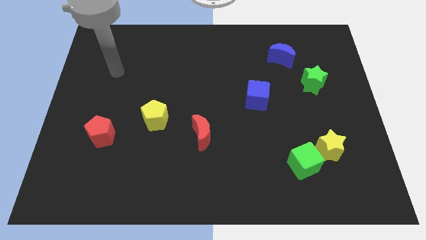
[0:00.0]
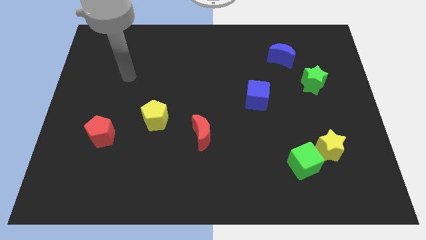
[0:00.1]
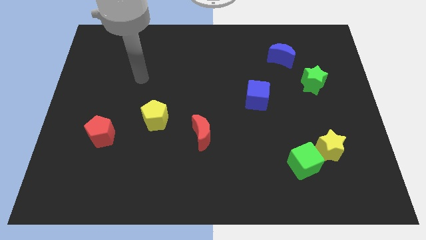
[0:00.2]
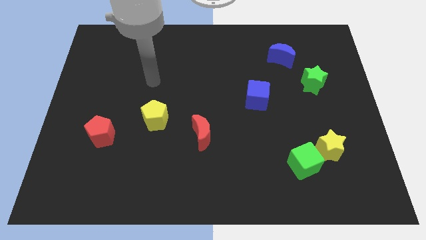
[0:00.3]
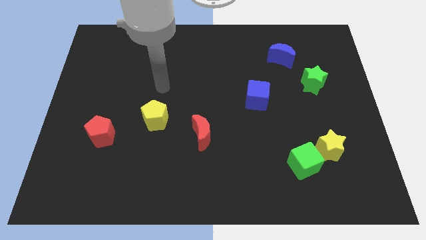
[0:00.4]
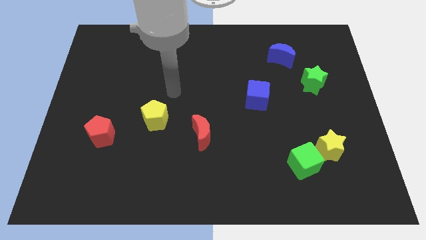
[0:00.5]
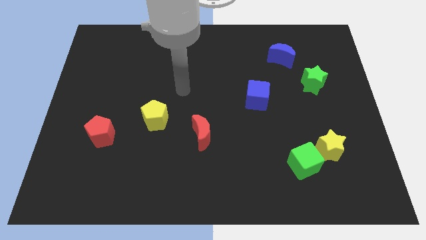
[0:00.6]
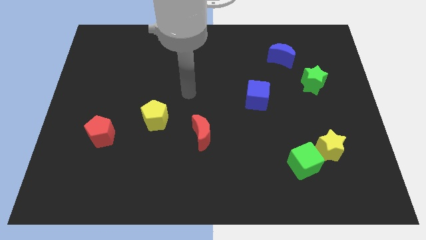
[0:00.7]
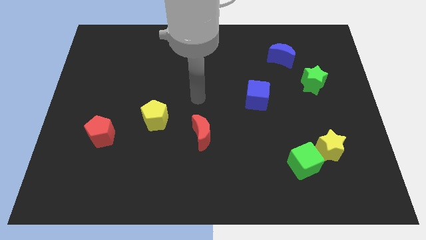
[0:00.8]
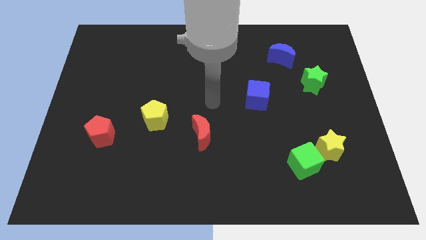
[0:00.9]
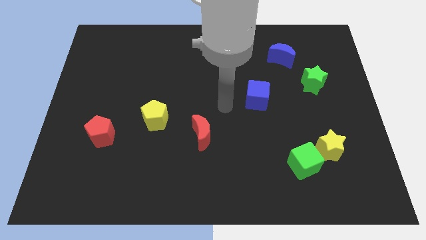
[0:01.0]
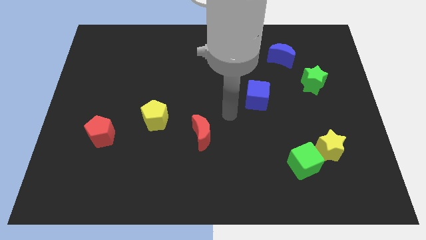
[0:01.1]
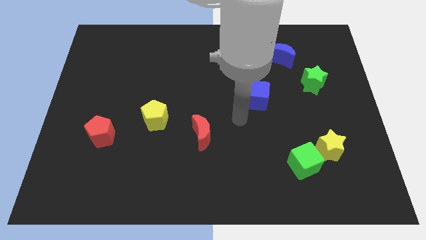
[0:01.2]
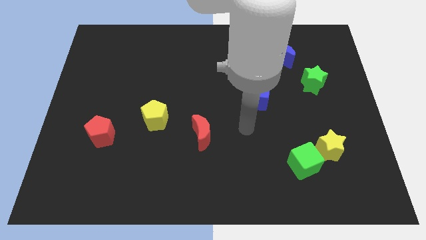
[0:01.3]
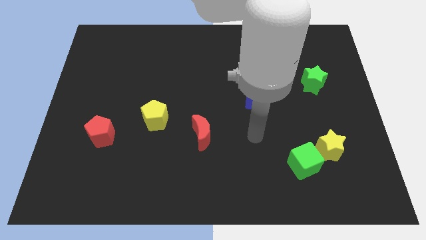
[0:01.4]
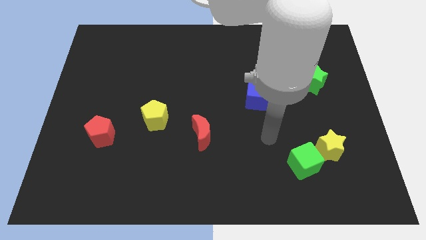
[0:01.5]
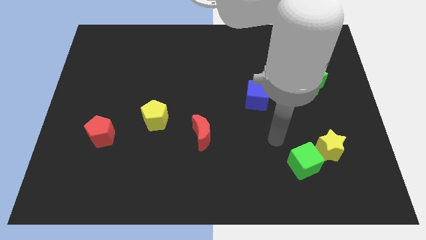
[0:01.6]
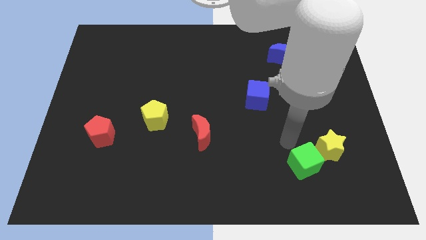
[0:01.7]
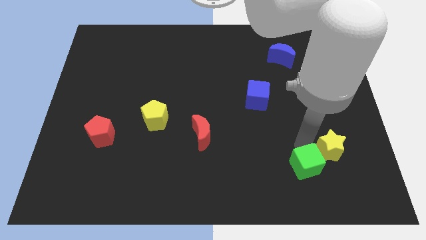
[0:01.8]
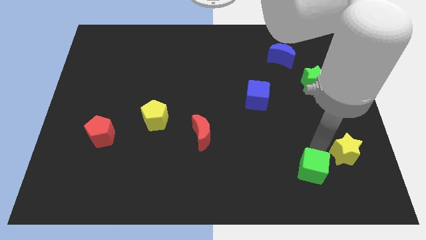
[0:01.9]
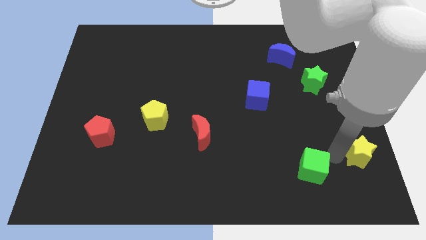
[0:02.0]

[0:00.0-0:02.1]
move the green cube away from the yellow star

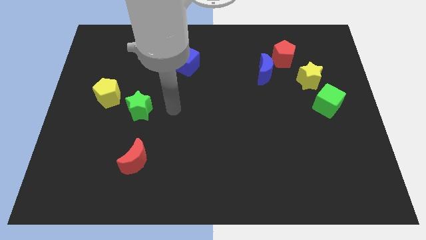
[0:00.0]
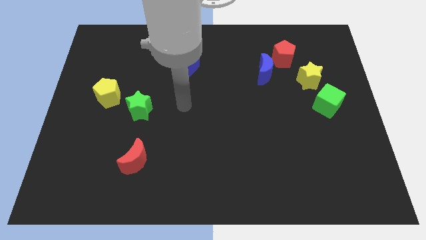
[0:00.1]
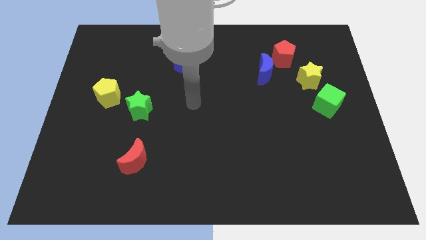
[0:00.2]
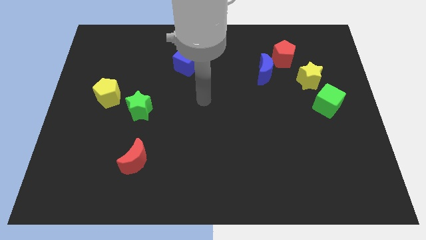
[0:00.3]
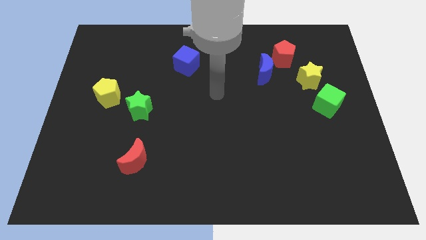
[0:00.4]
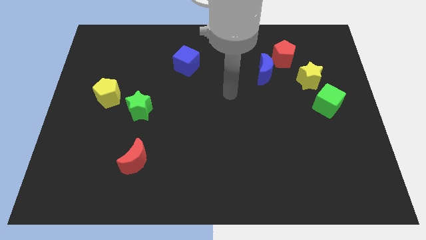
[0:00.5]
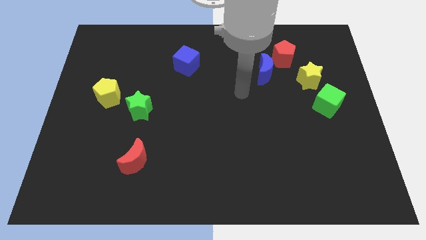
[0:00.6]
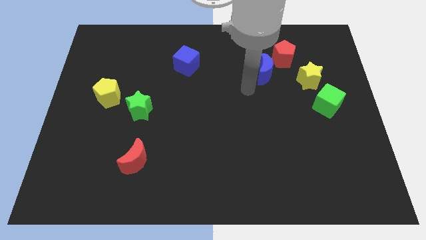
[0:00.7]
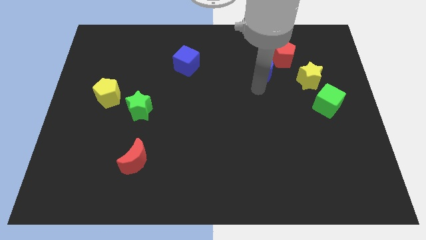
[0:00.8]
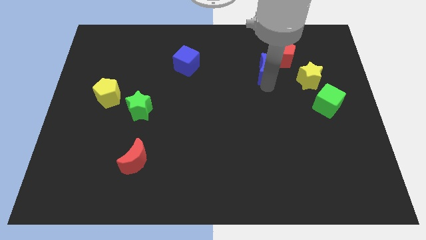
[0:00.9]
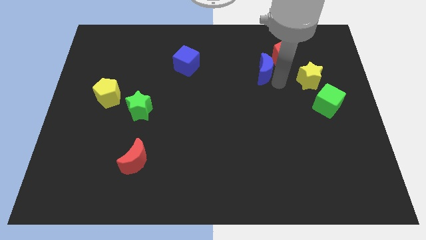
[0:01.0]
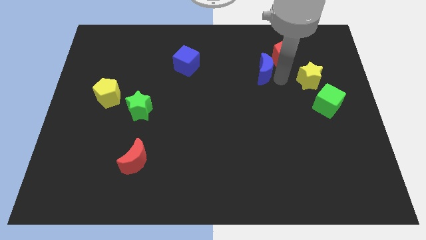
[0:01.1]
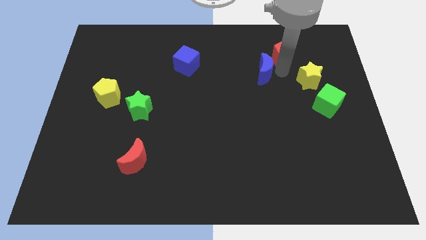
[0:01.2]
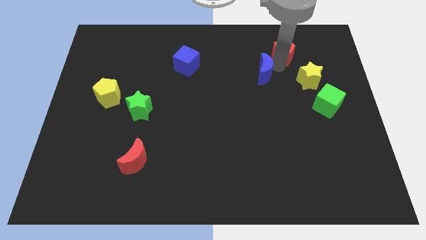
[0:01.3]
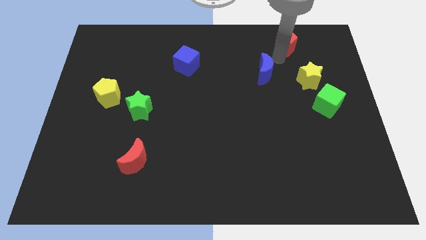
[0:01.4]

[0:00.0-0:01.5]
pull the blue moon apart from the red pentagon

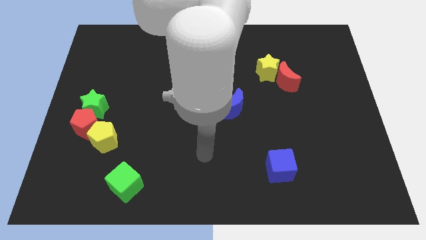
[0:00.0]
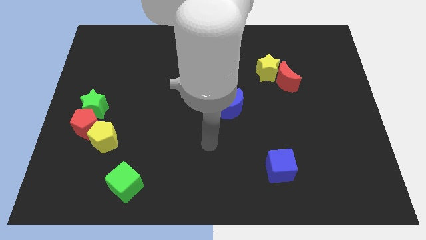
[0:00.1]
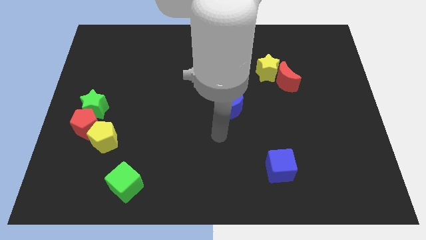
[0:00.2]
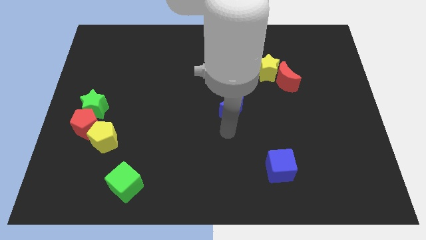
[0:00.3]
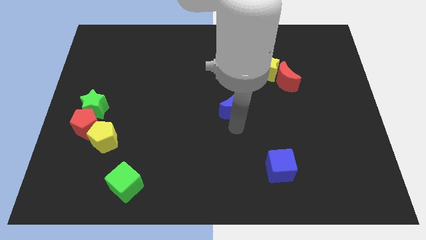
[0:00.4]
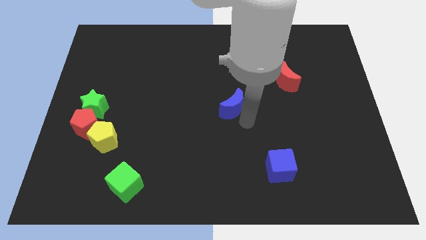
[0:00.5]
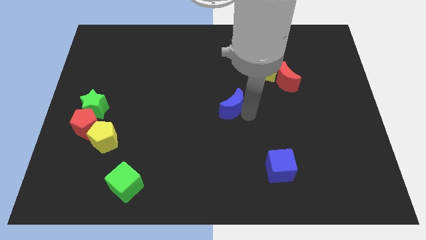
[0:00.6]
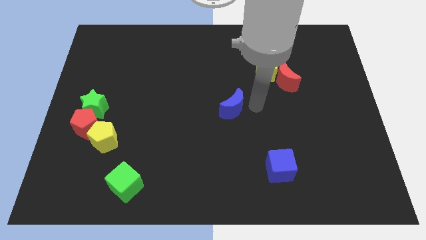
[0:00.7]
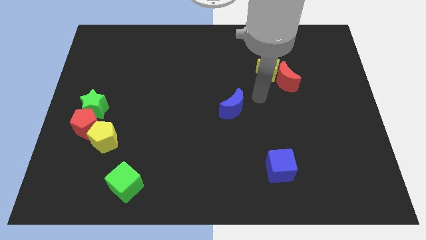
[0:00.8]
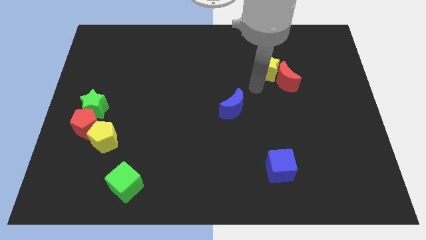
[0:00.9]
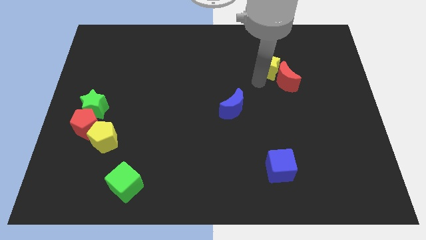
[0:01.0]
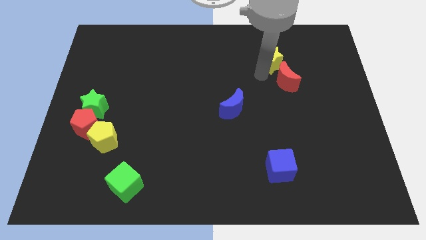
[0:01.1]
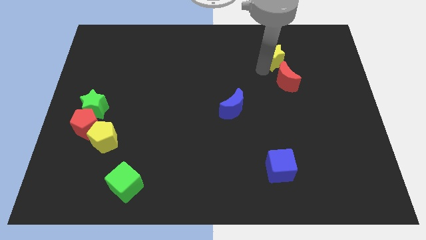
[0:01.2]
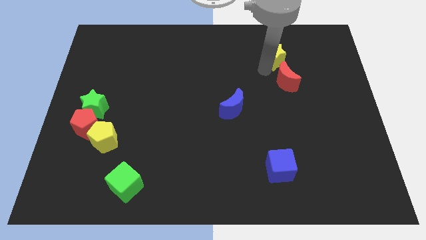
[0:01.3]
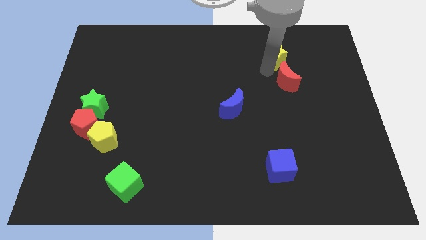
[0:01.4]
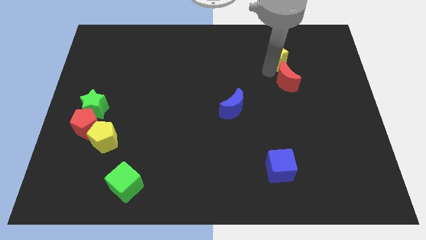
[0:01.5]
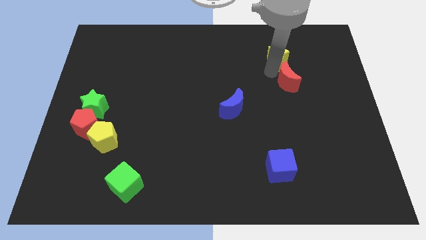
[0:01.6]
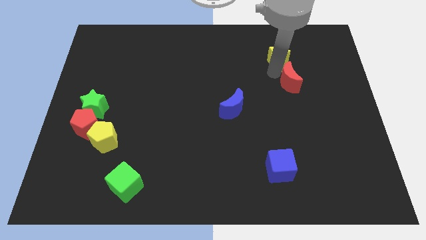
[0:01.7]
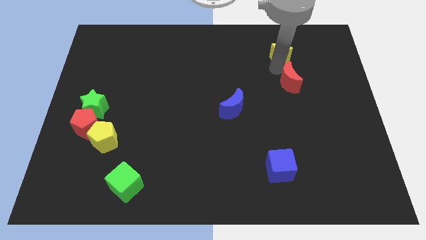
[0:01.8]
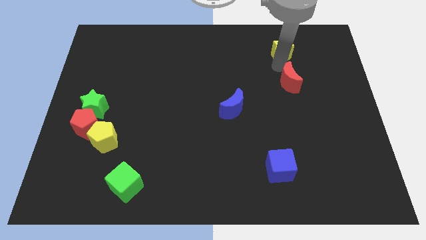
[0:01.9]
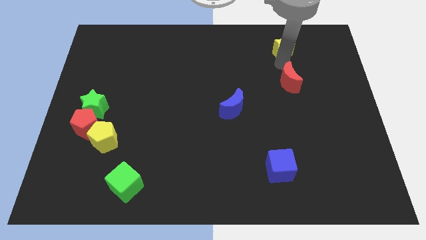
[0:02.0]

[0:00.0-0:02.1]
move the red moon away from the yellow star

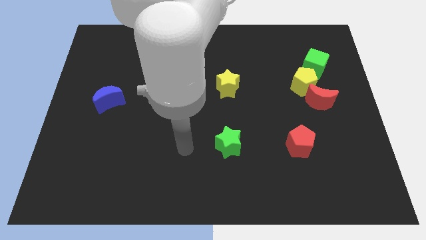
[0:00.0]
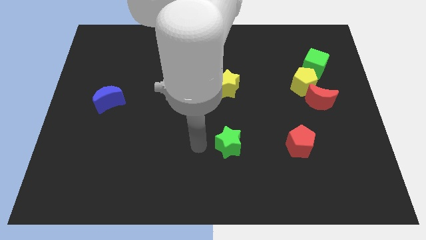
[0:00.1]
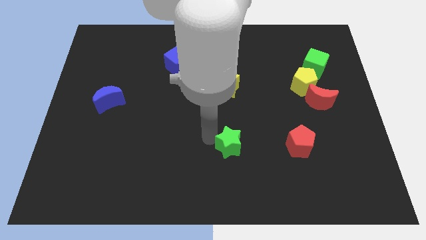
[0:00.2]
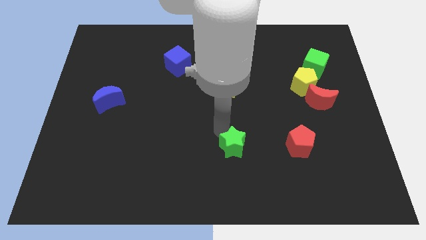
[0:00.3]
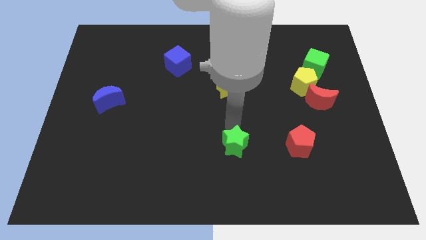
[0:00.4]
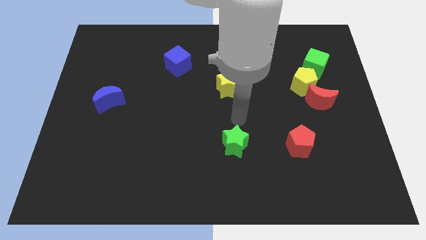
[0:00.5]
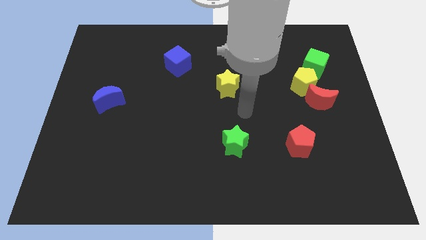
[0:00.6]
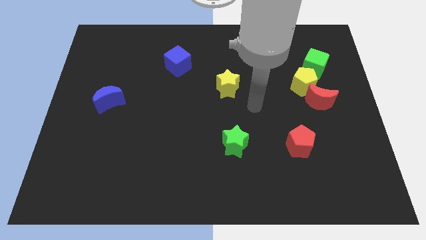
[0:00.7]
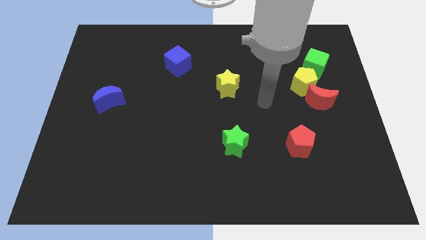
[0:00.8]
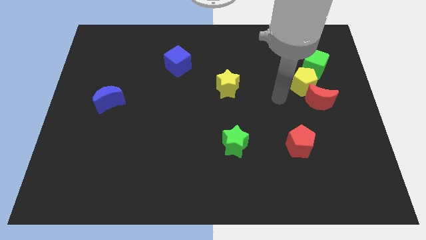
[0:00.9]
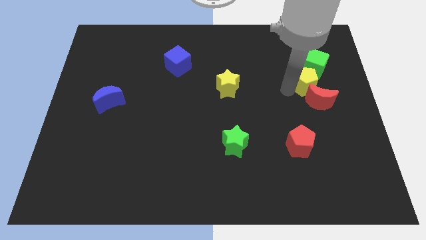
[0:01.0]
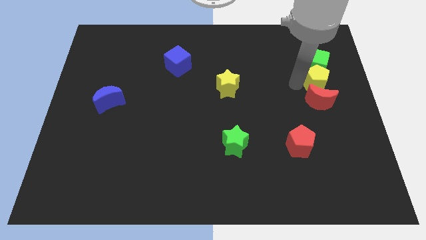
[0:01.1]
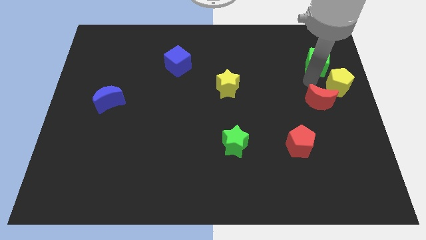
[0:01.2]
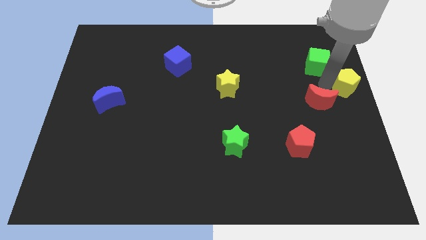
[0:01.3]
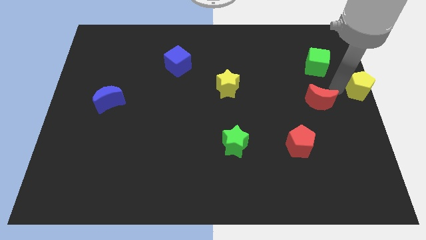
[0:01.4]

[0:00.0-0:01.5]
separate the red moon from the yellow pentagon

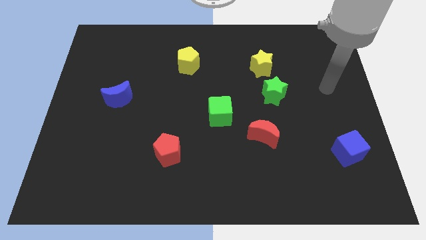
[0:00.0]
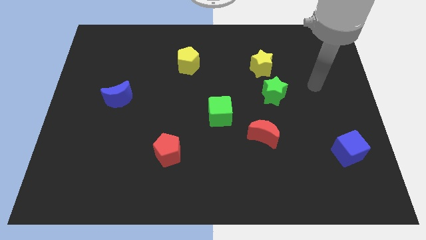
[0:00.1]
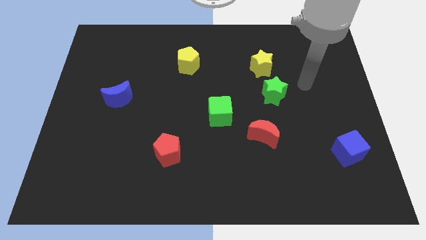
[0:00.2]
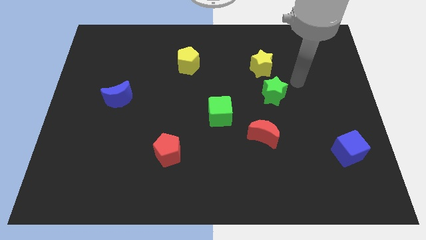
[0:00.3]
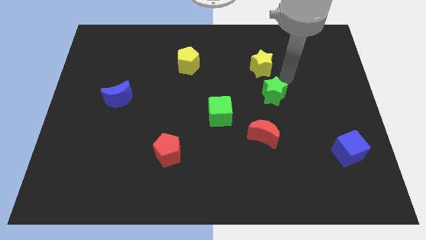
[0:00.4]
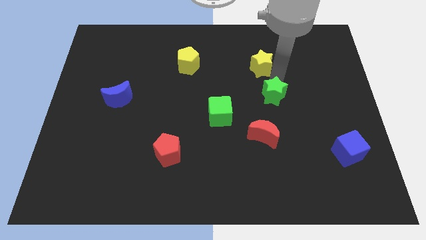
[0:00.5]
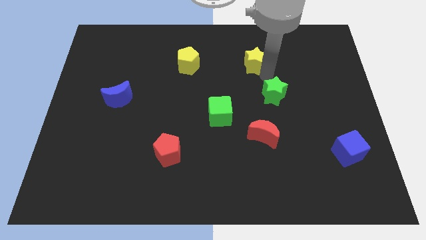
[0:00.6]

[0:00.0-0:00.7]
move the green star away from the yellow star

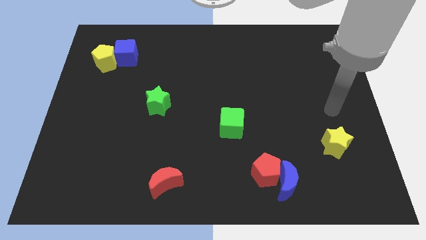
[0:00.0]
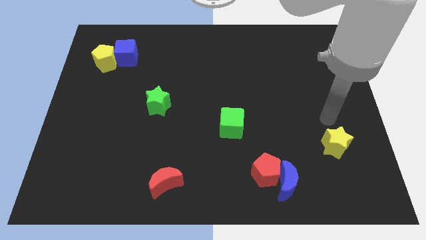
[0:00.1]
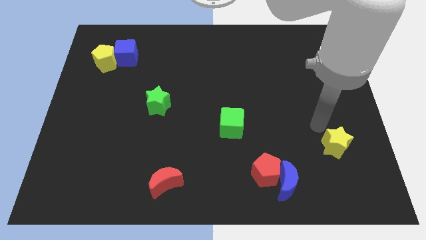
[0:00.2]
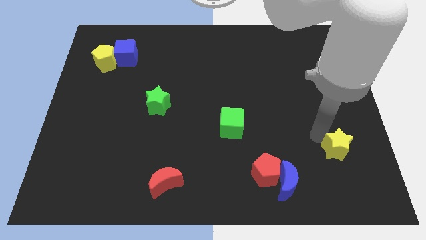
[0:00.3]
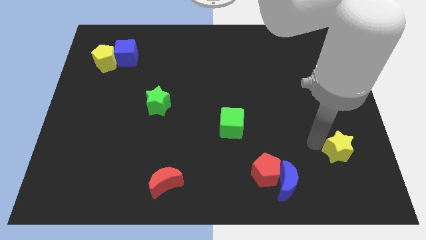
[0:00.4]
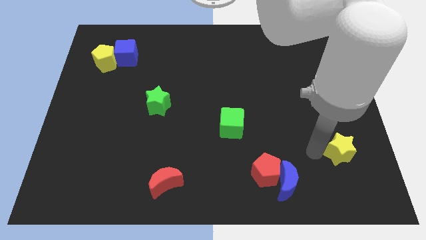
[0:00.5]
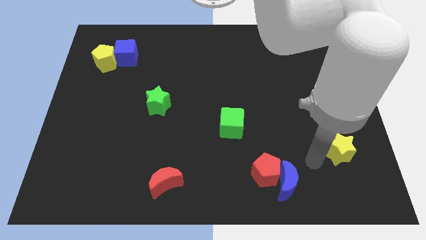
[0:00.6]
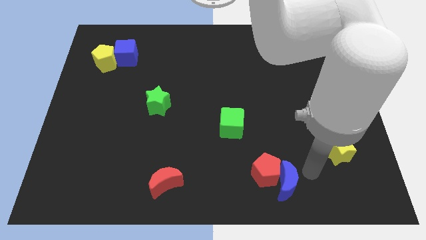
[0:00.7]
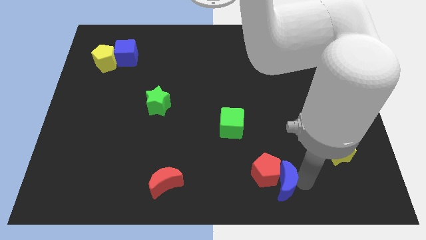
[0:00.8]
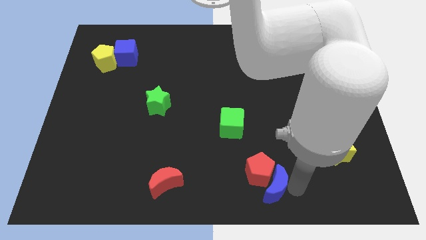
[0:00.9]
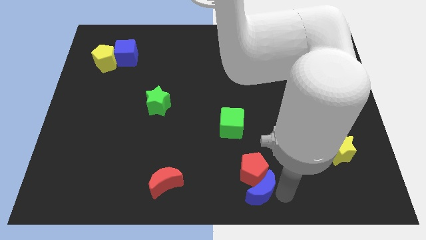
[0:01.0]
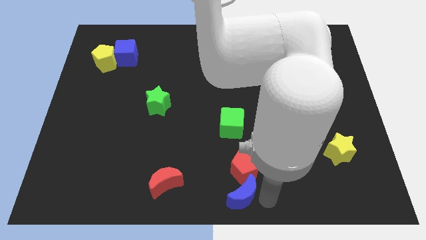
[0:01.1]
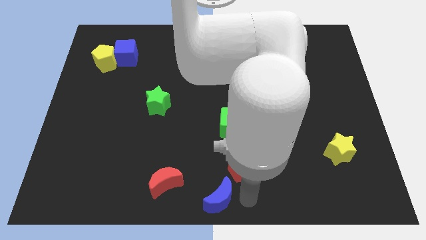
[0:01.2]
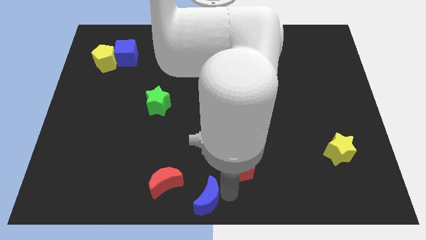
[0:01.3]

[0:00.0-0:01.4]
pull the red pentagon apart from the blue moon

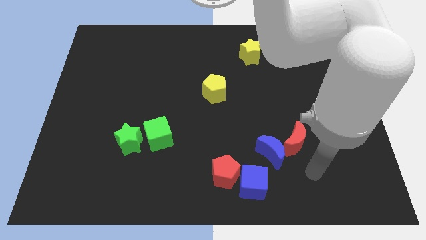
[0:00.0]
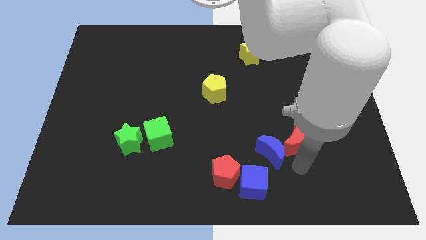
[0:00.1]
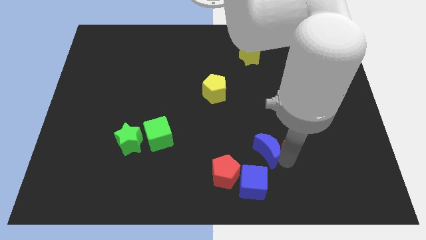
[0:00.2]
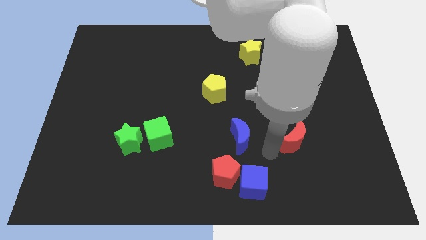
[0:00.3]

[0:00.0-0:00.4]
pull the red moon apart from the blue moon
